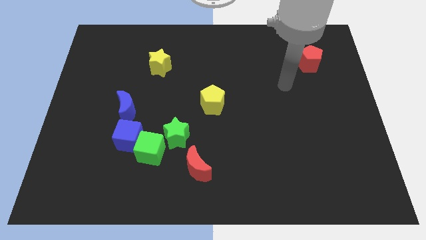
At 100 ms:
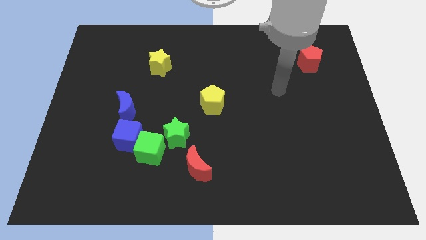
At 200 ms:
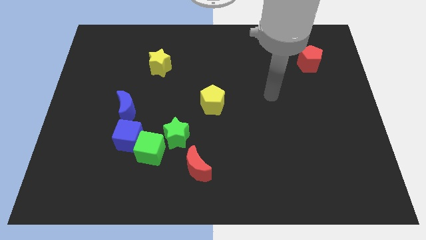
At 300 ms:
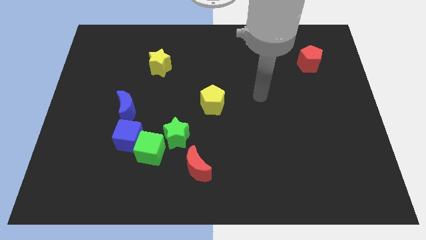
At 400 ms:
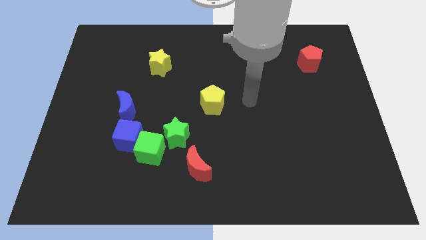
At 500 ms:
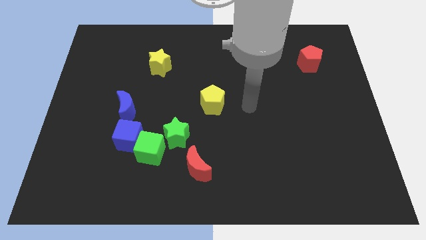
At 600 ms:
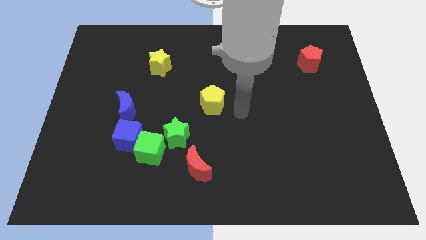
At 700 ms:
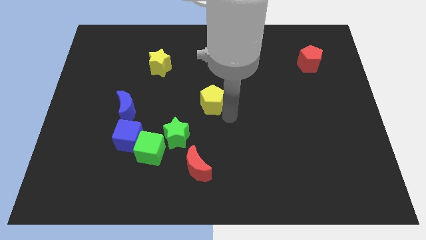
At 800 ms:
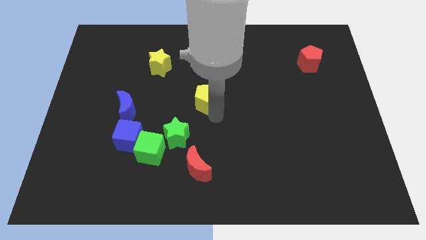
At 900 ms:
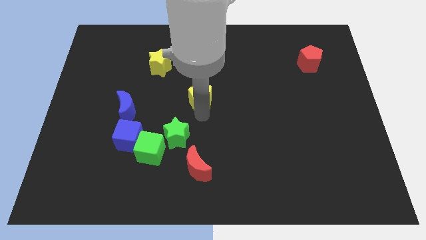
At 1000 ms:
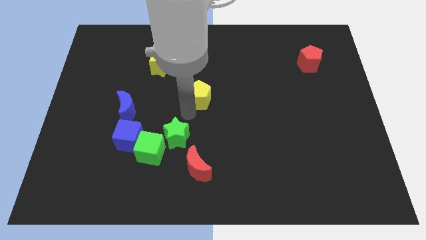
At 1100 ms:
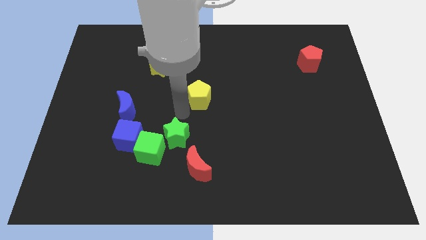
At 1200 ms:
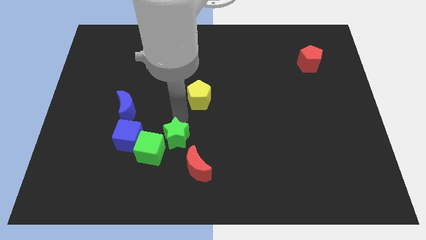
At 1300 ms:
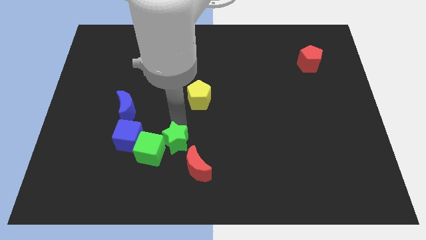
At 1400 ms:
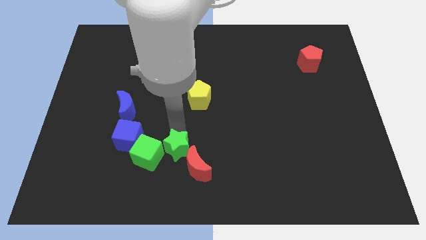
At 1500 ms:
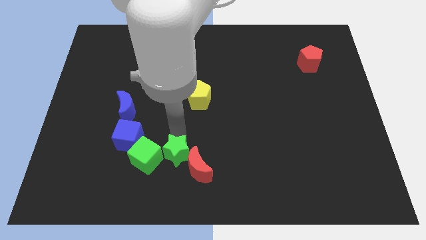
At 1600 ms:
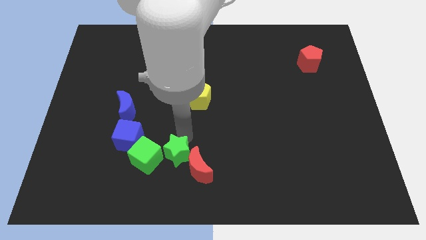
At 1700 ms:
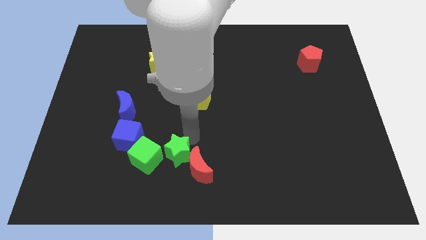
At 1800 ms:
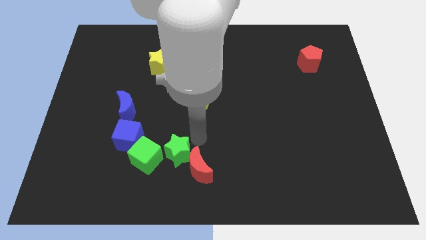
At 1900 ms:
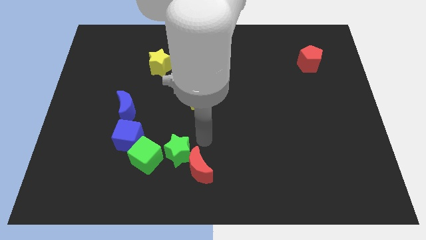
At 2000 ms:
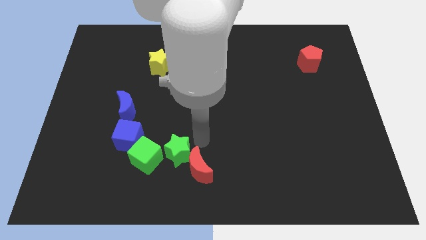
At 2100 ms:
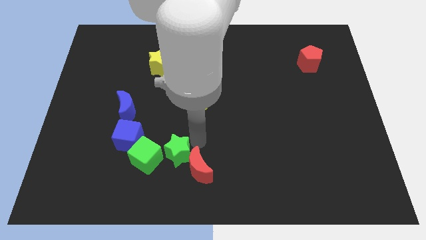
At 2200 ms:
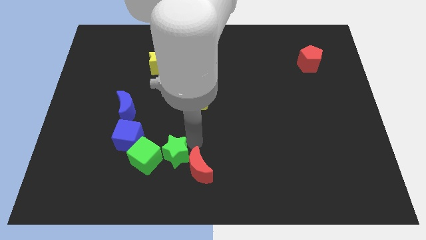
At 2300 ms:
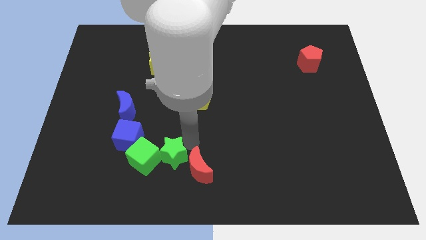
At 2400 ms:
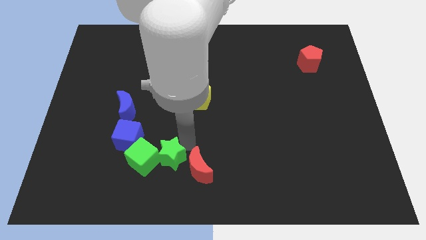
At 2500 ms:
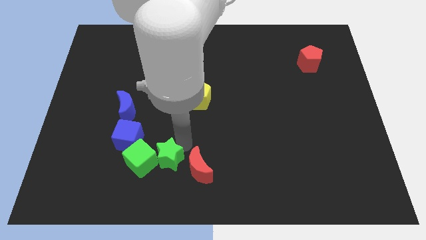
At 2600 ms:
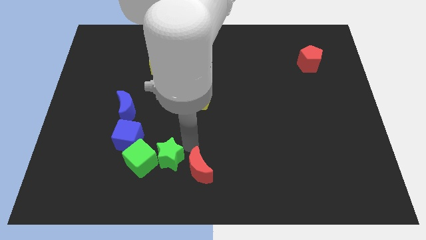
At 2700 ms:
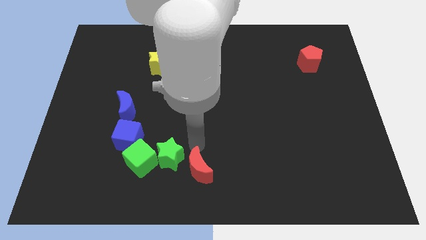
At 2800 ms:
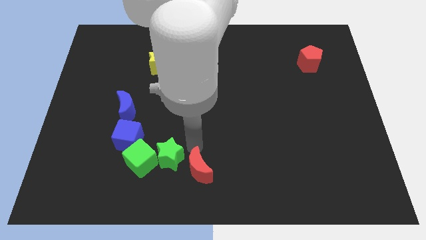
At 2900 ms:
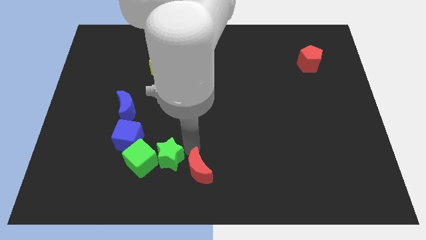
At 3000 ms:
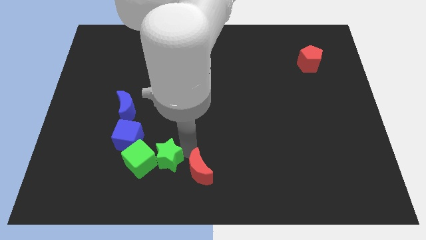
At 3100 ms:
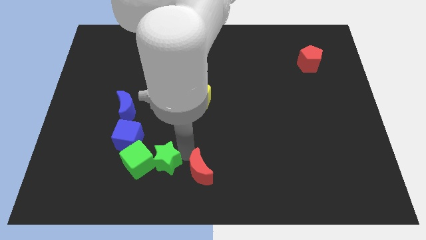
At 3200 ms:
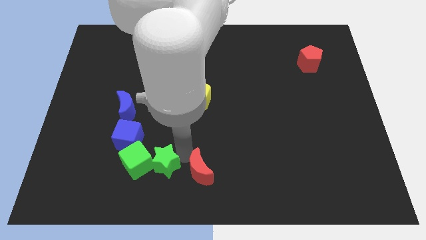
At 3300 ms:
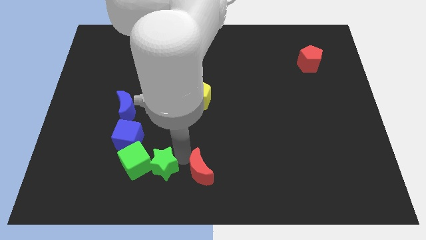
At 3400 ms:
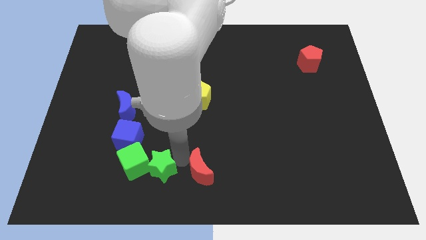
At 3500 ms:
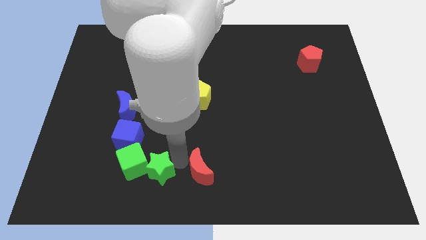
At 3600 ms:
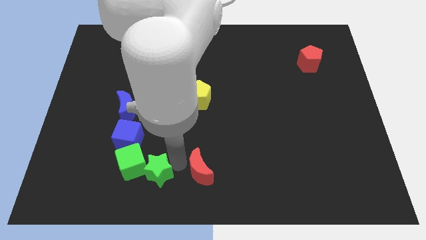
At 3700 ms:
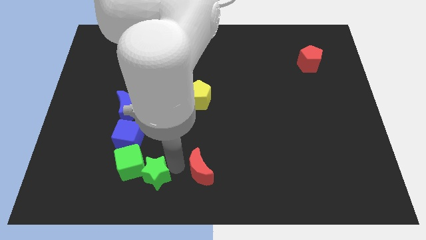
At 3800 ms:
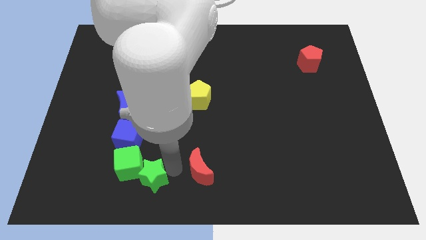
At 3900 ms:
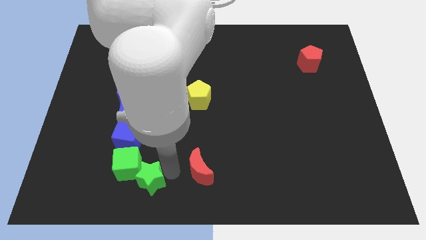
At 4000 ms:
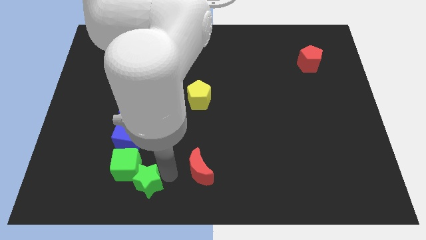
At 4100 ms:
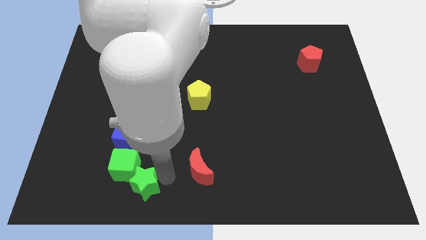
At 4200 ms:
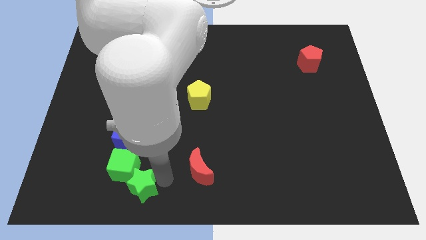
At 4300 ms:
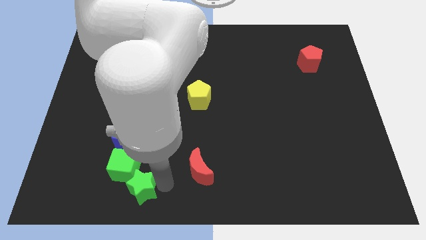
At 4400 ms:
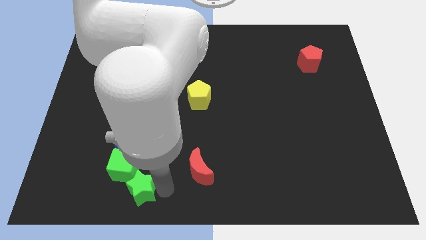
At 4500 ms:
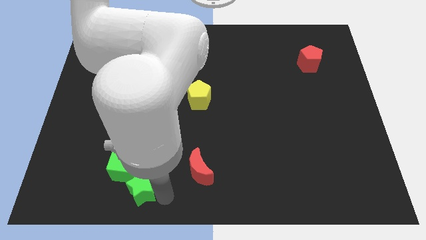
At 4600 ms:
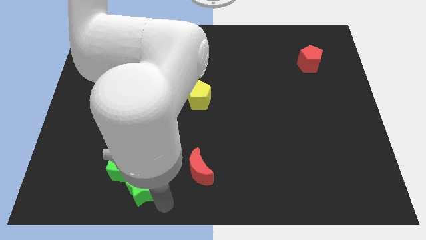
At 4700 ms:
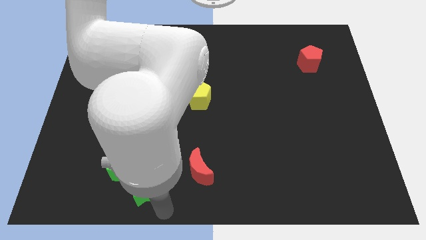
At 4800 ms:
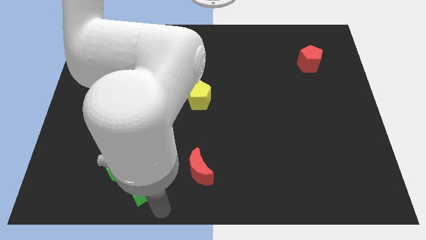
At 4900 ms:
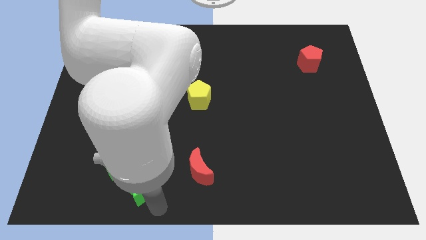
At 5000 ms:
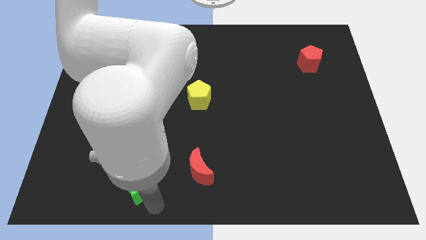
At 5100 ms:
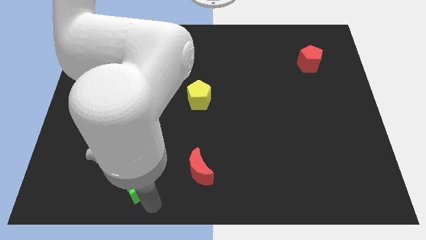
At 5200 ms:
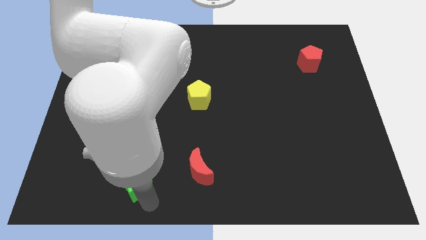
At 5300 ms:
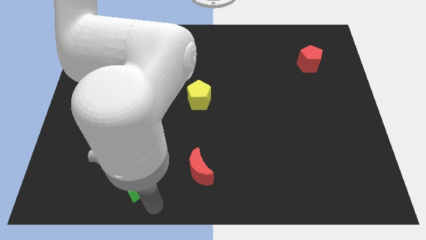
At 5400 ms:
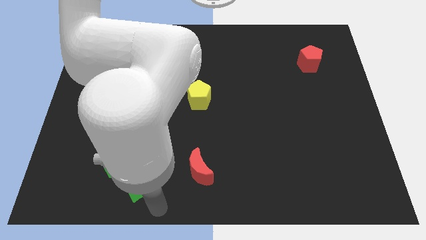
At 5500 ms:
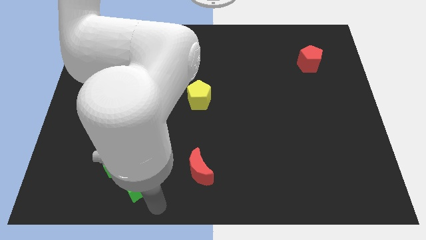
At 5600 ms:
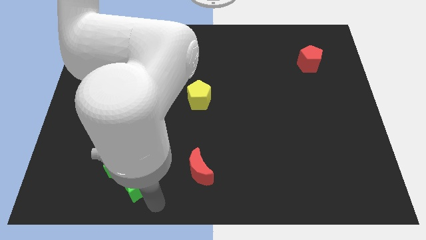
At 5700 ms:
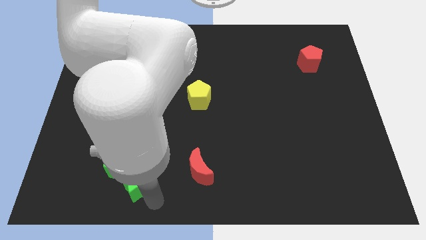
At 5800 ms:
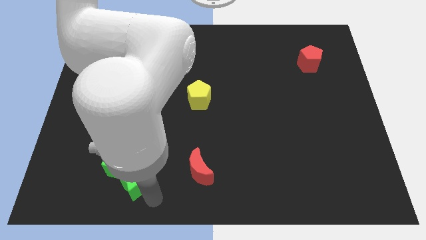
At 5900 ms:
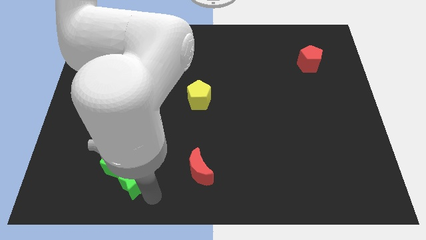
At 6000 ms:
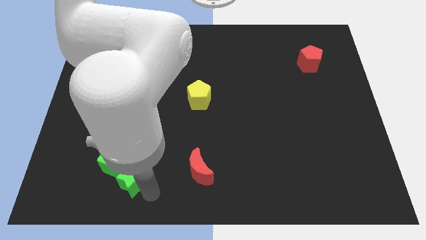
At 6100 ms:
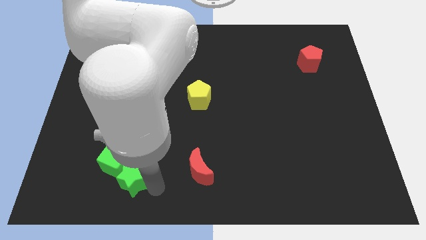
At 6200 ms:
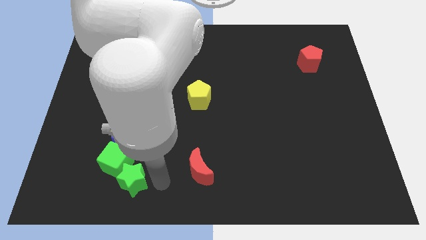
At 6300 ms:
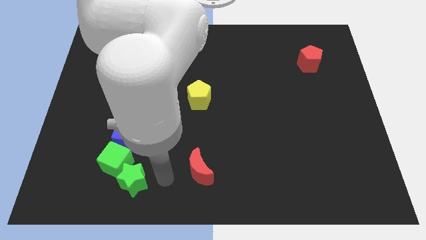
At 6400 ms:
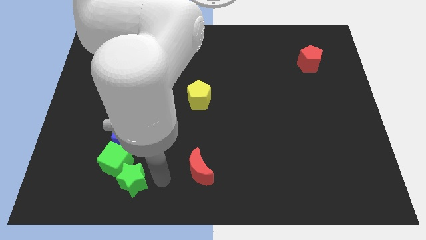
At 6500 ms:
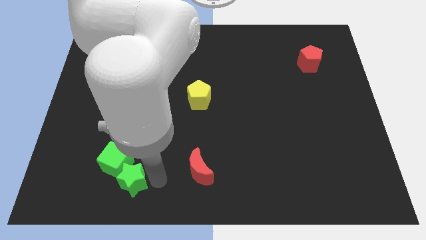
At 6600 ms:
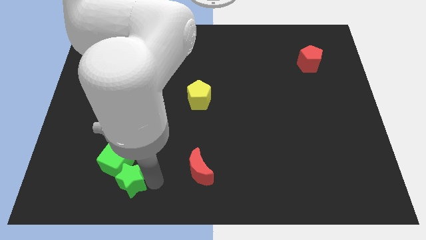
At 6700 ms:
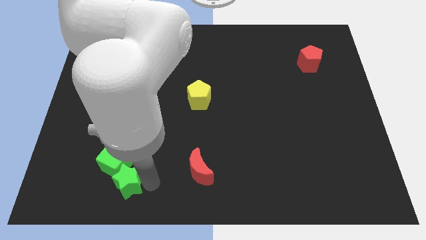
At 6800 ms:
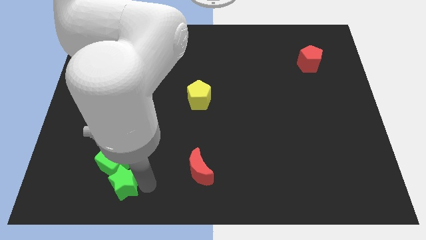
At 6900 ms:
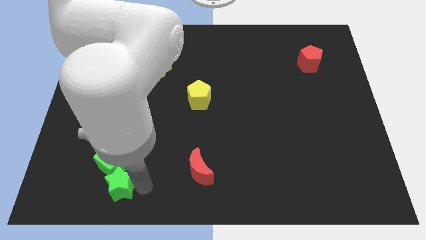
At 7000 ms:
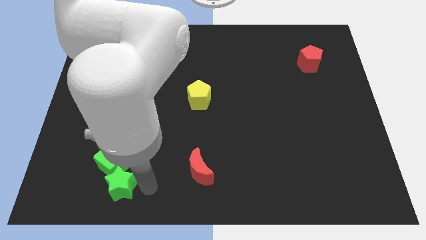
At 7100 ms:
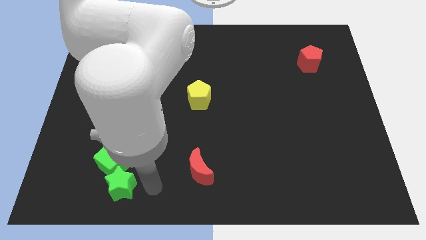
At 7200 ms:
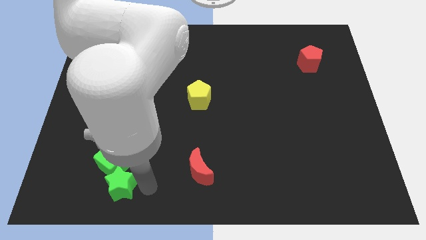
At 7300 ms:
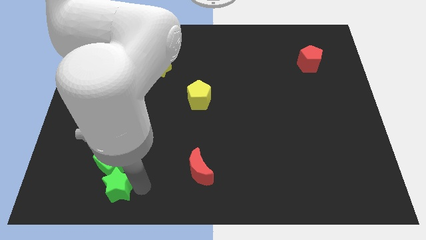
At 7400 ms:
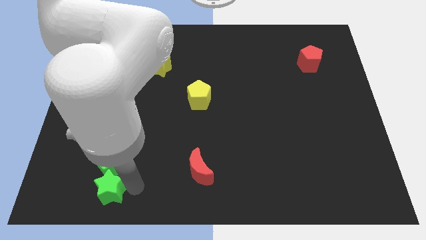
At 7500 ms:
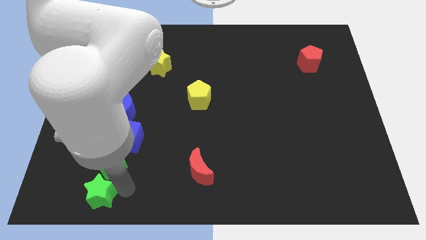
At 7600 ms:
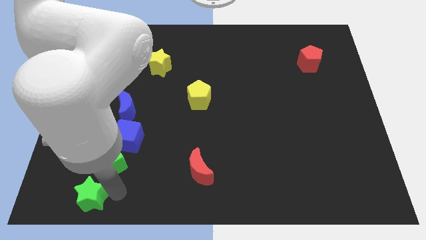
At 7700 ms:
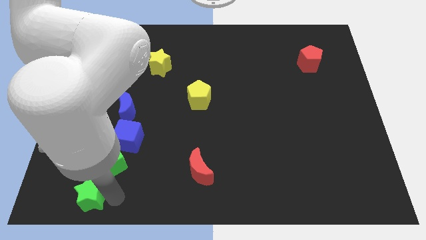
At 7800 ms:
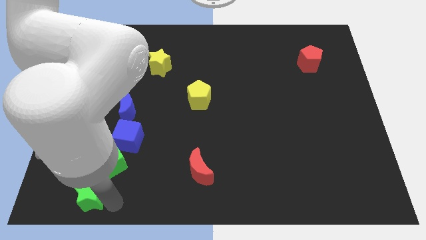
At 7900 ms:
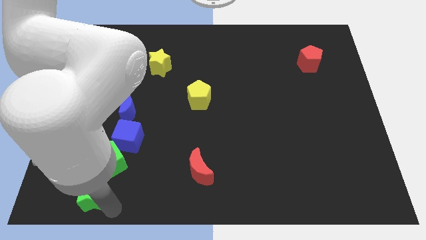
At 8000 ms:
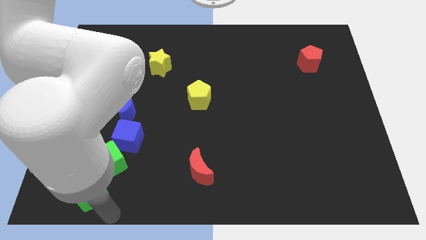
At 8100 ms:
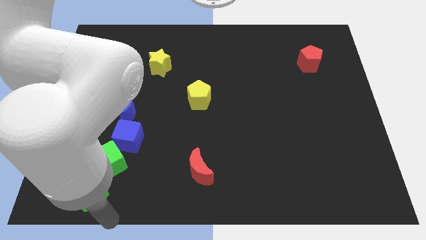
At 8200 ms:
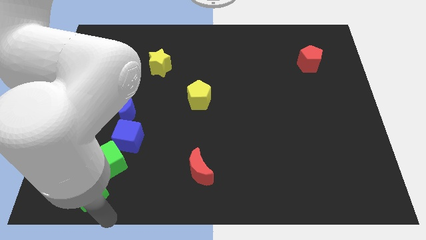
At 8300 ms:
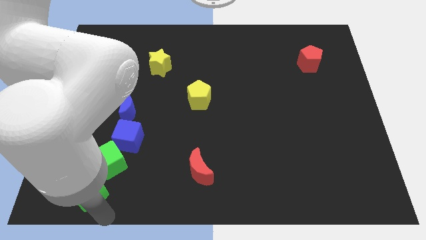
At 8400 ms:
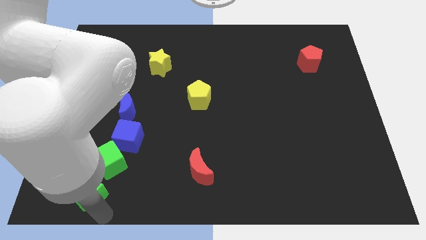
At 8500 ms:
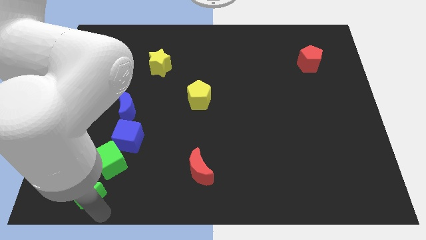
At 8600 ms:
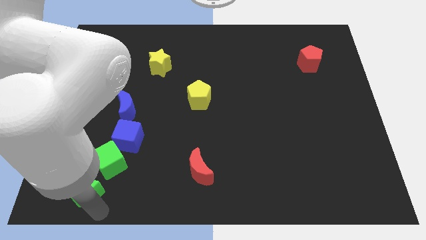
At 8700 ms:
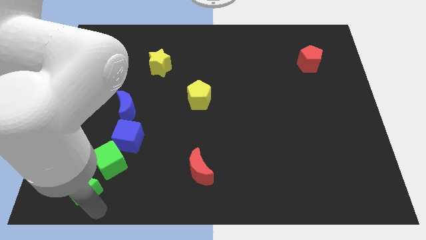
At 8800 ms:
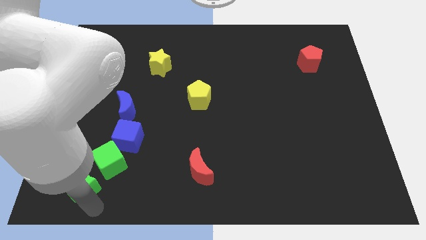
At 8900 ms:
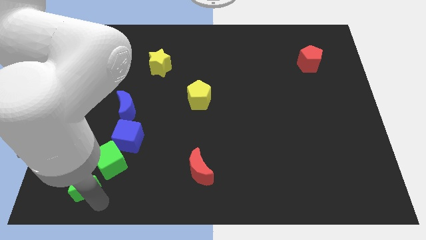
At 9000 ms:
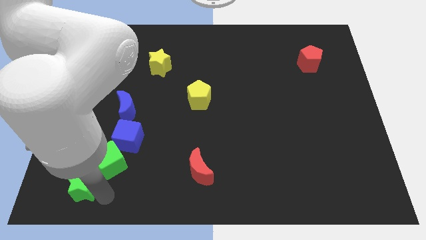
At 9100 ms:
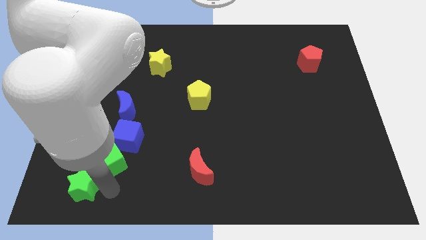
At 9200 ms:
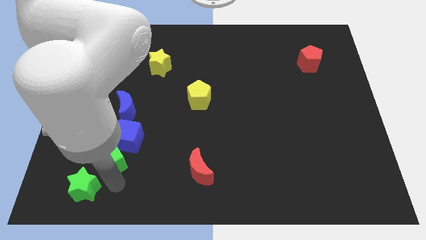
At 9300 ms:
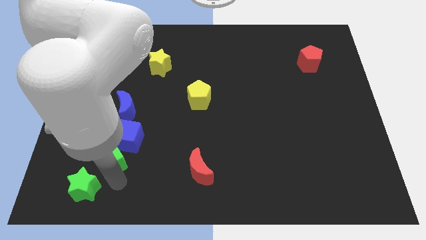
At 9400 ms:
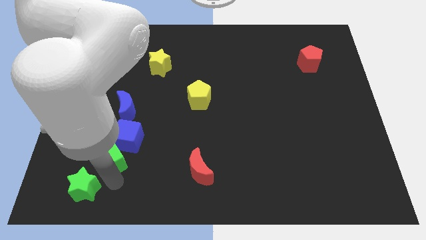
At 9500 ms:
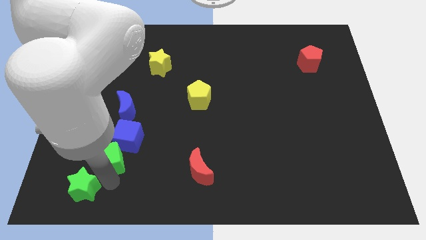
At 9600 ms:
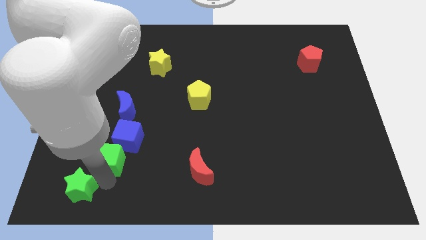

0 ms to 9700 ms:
put the green star to the bottom left corner
